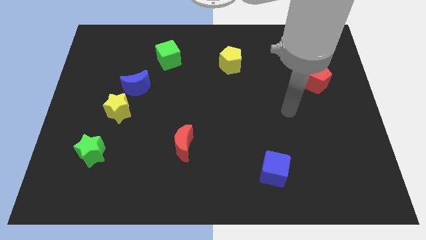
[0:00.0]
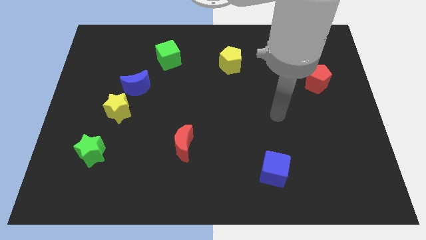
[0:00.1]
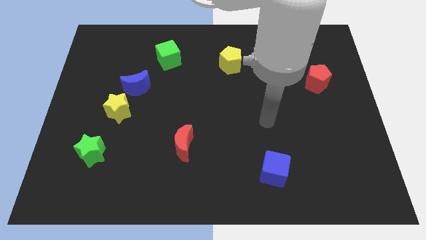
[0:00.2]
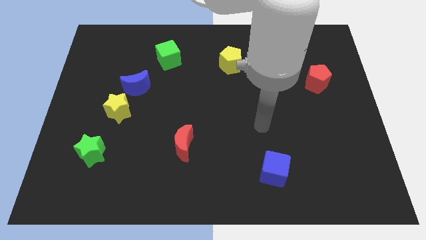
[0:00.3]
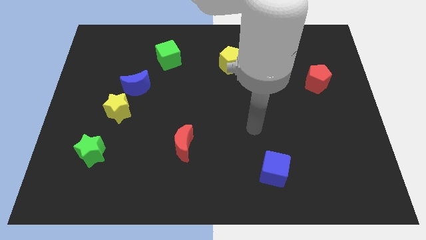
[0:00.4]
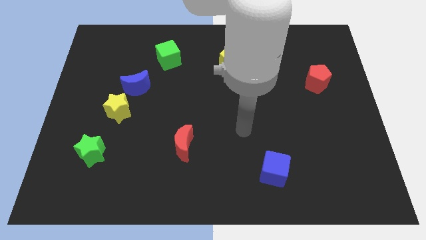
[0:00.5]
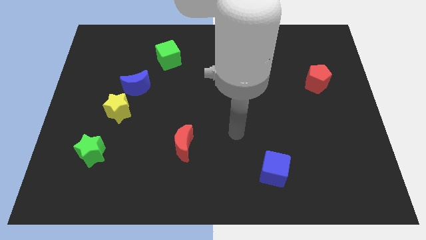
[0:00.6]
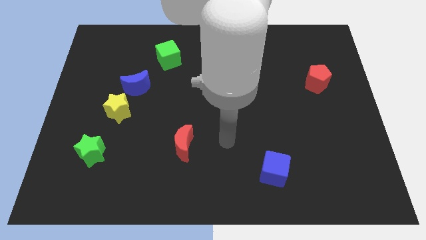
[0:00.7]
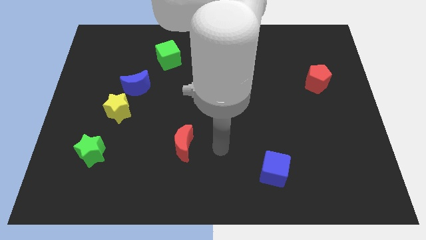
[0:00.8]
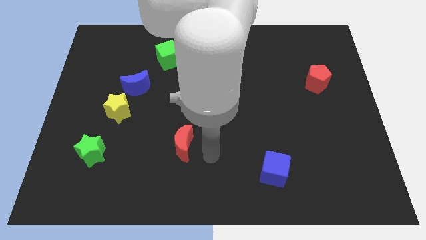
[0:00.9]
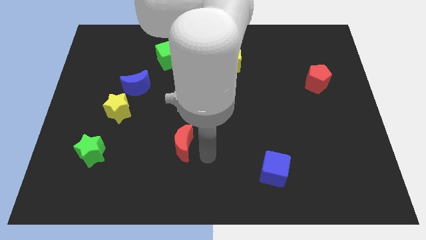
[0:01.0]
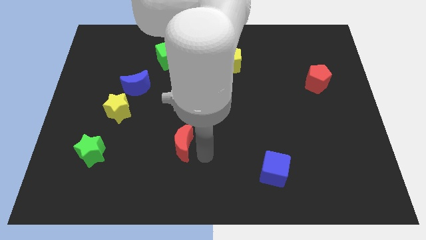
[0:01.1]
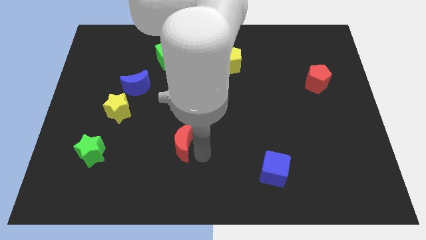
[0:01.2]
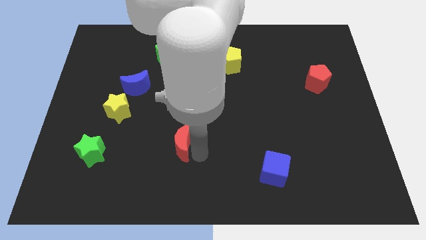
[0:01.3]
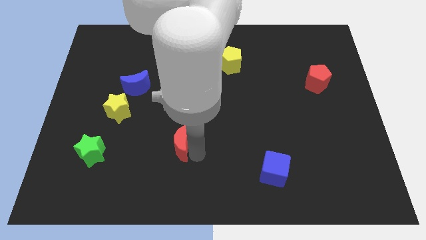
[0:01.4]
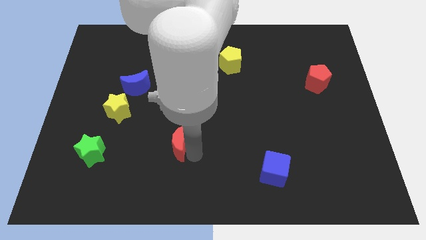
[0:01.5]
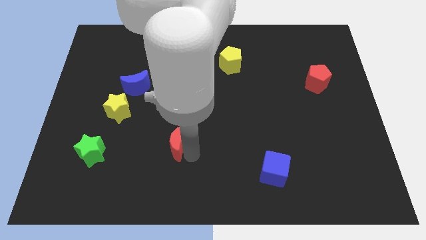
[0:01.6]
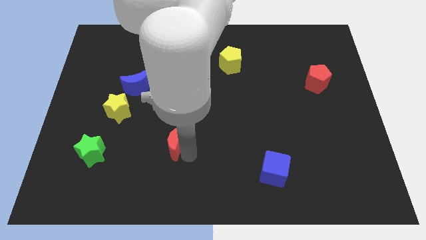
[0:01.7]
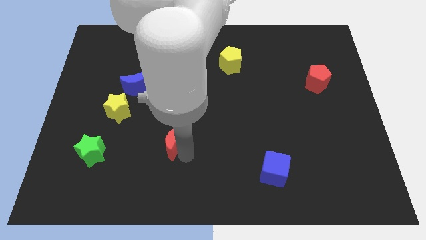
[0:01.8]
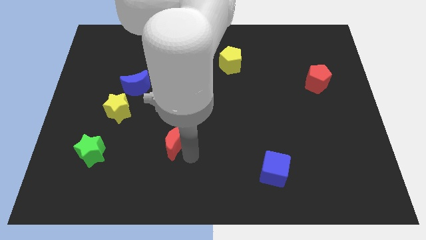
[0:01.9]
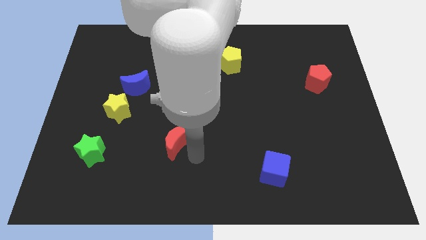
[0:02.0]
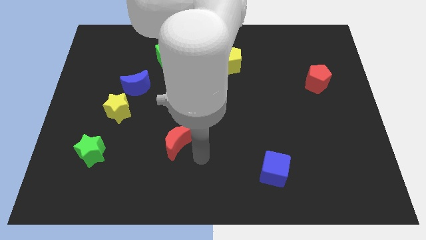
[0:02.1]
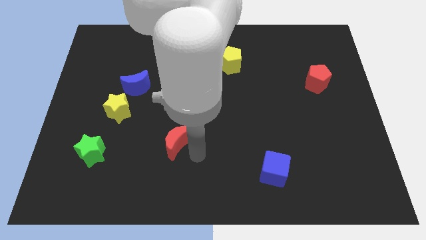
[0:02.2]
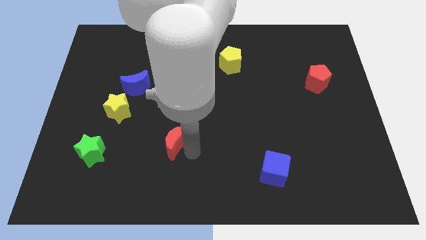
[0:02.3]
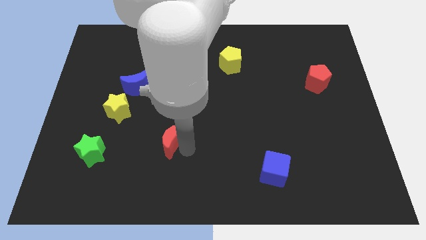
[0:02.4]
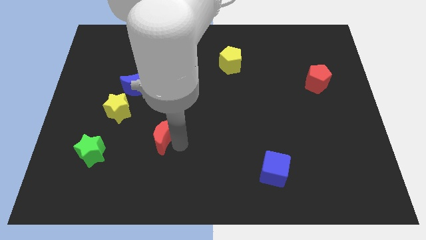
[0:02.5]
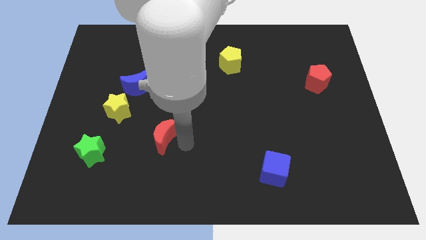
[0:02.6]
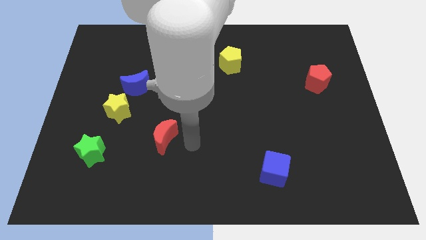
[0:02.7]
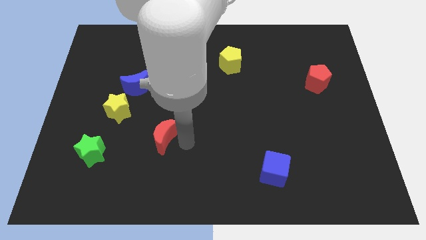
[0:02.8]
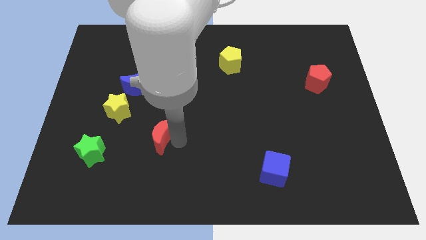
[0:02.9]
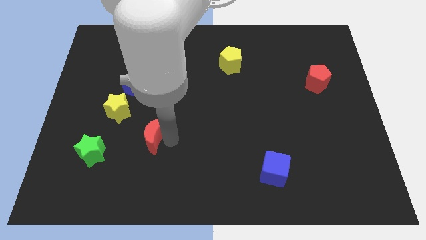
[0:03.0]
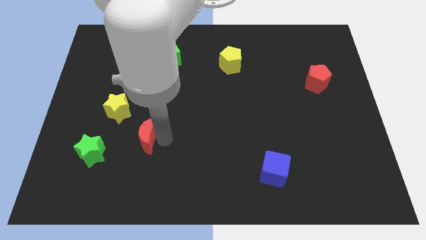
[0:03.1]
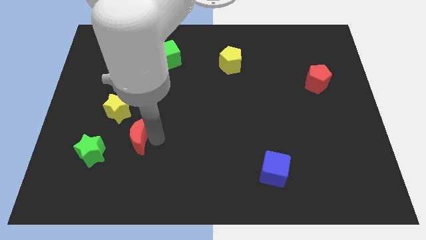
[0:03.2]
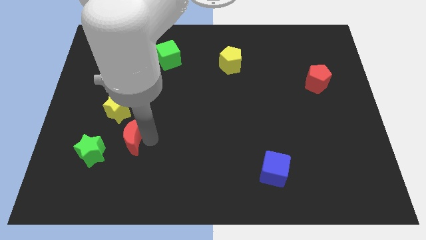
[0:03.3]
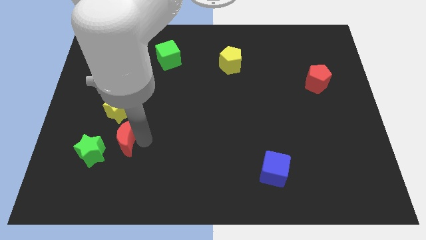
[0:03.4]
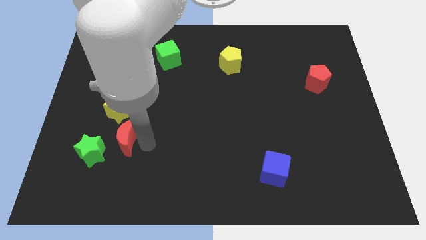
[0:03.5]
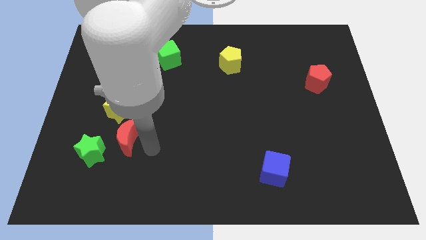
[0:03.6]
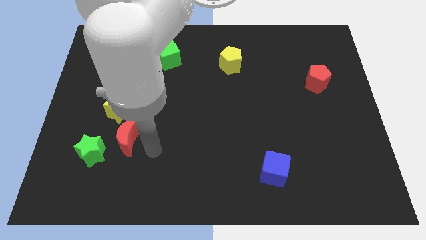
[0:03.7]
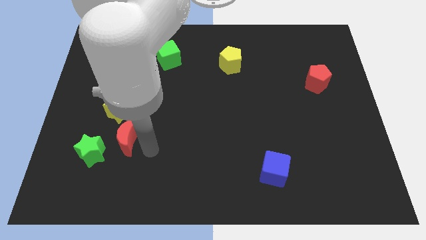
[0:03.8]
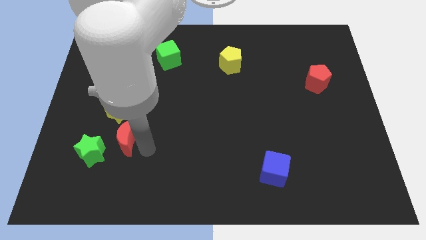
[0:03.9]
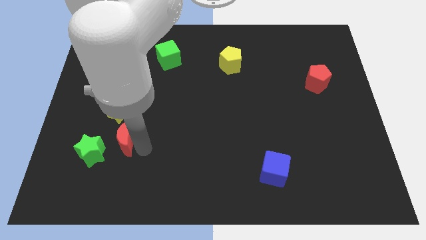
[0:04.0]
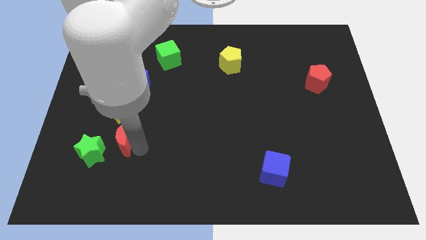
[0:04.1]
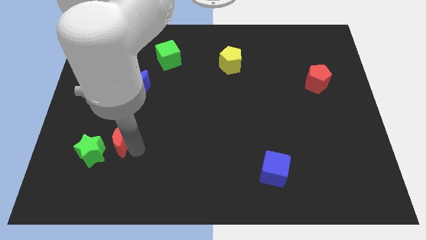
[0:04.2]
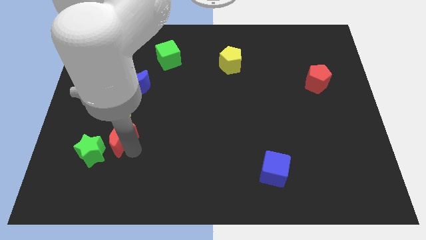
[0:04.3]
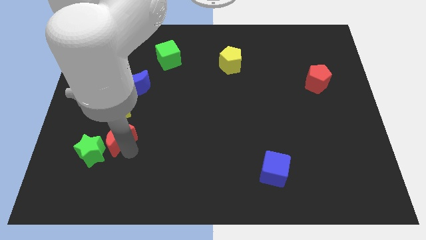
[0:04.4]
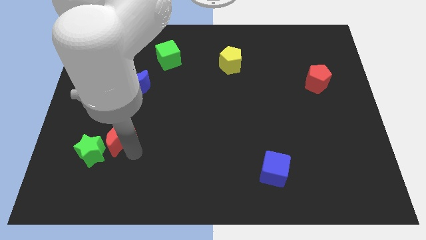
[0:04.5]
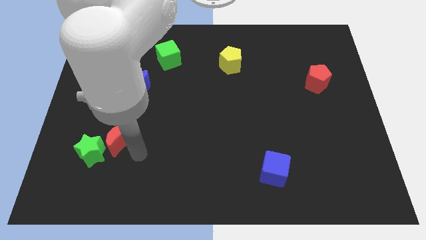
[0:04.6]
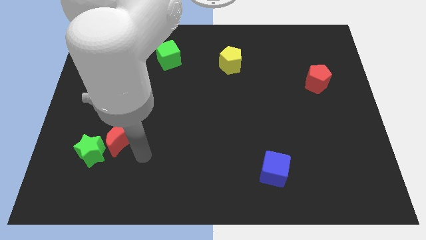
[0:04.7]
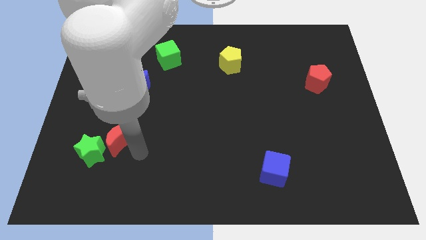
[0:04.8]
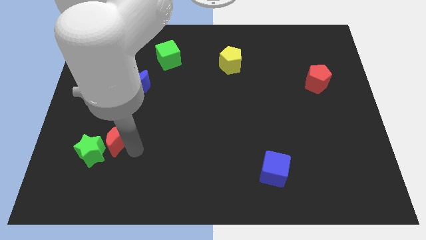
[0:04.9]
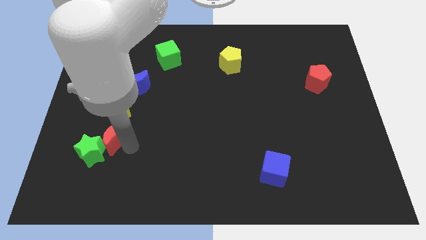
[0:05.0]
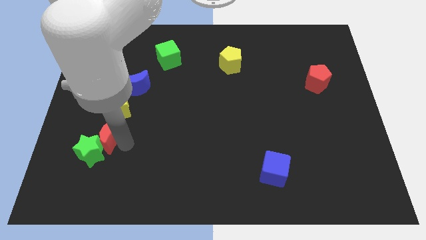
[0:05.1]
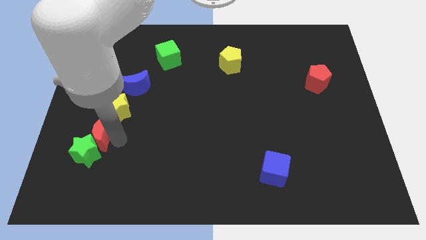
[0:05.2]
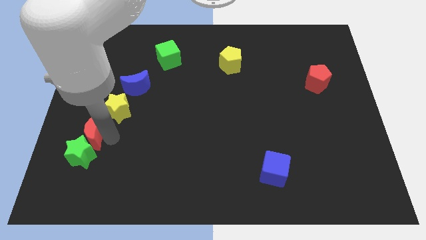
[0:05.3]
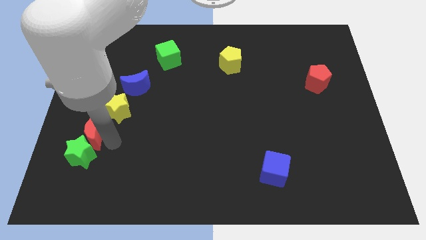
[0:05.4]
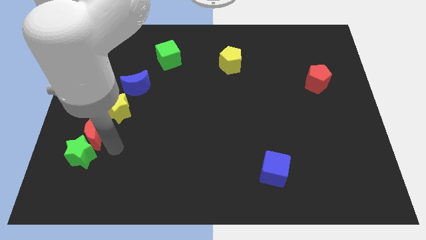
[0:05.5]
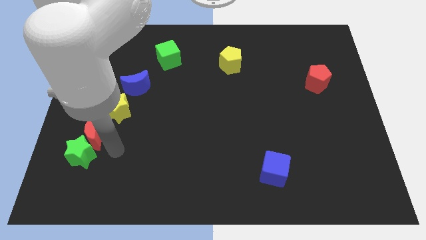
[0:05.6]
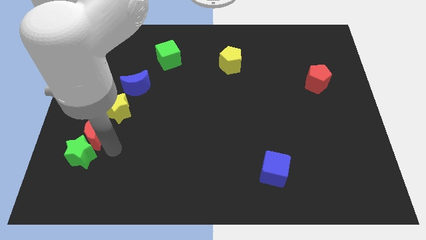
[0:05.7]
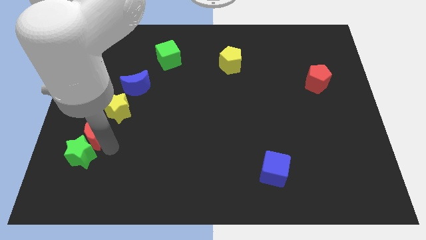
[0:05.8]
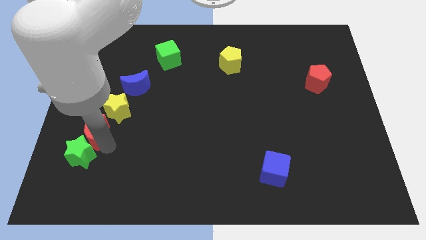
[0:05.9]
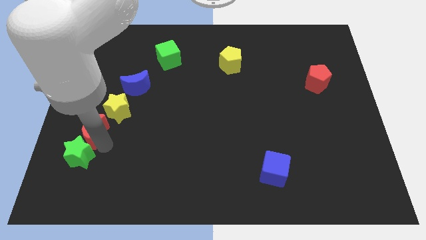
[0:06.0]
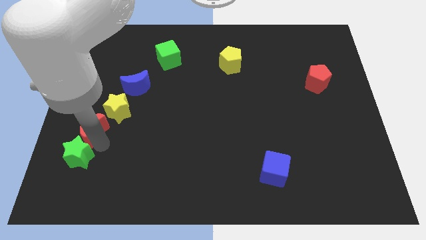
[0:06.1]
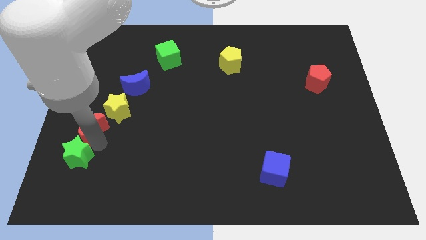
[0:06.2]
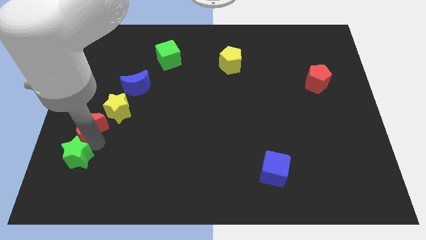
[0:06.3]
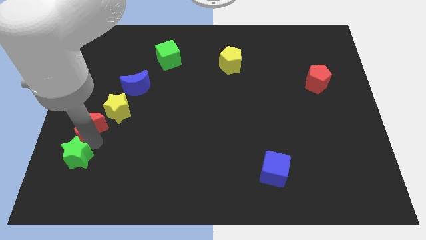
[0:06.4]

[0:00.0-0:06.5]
put the red moon to the center left
